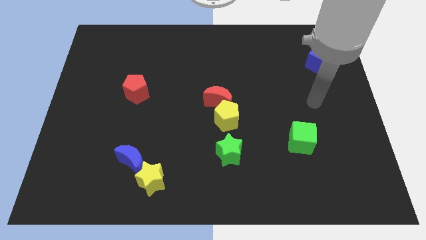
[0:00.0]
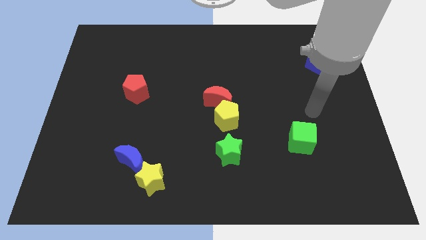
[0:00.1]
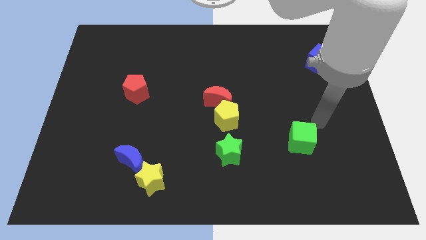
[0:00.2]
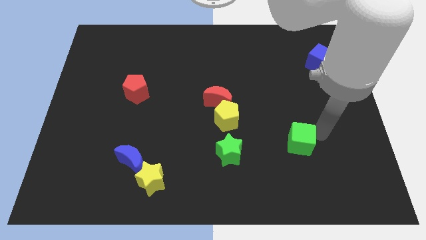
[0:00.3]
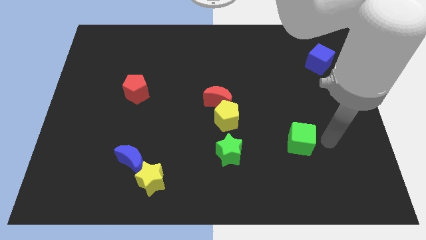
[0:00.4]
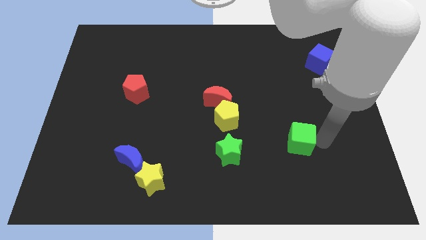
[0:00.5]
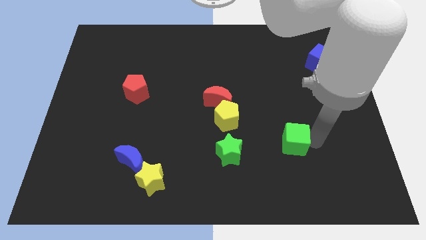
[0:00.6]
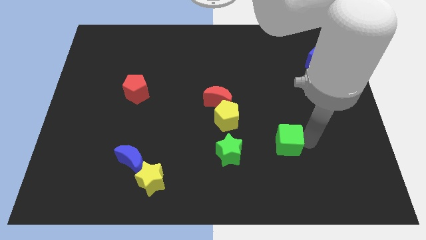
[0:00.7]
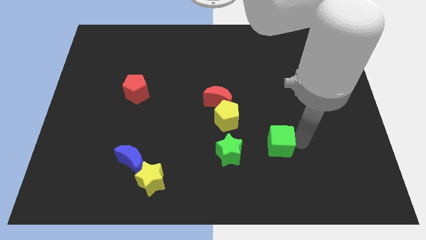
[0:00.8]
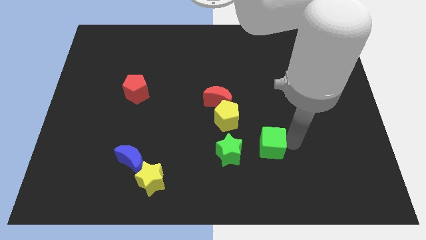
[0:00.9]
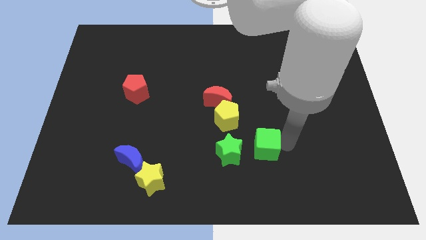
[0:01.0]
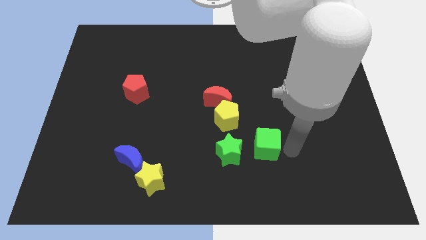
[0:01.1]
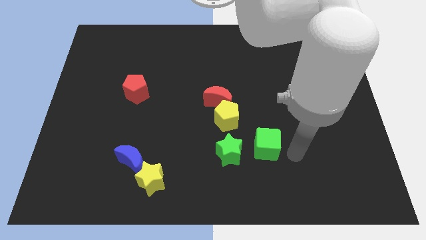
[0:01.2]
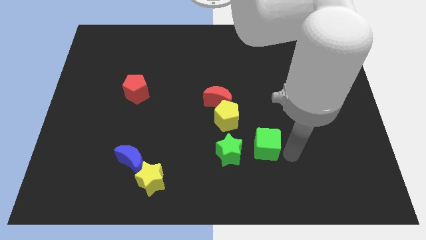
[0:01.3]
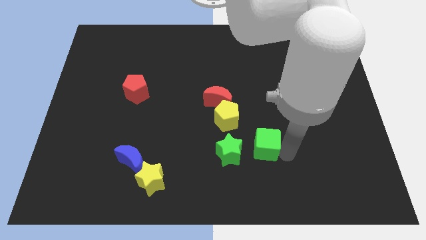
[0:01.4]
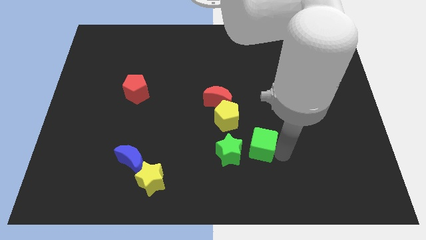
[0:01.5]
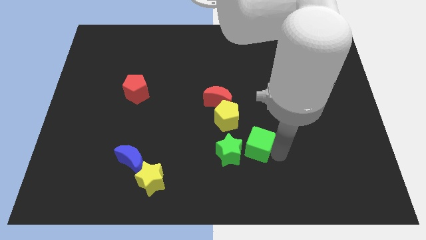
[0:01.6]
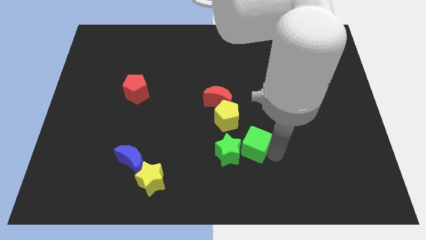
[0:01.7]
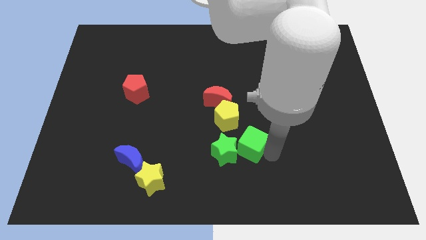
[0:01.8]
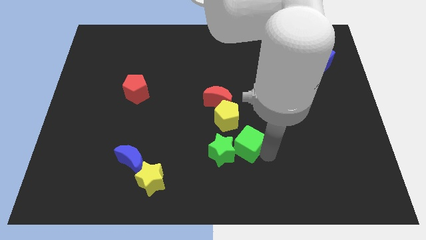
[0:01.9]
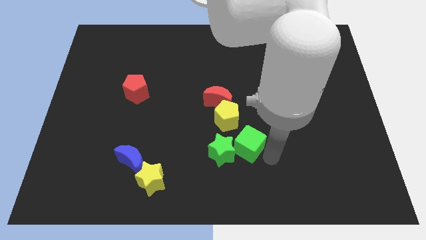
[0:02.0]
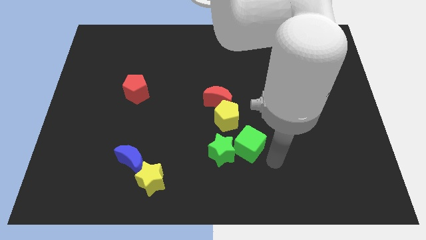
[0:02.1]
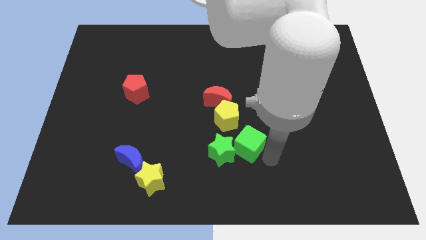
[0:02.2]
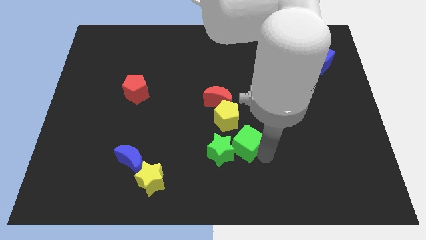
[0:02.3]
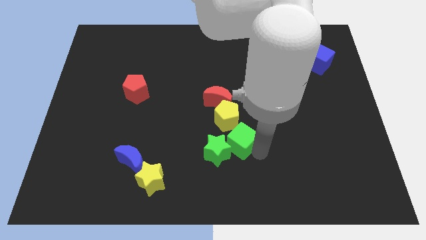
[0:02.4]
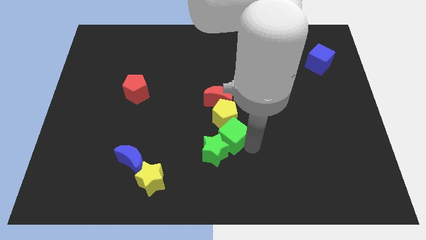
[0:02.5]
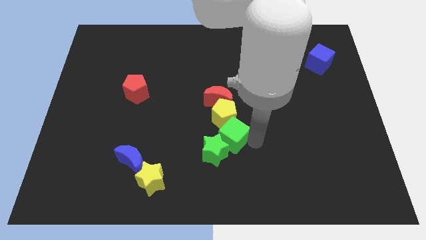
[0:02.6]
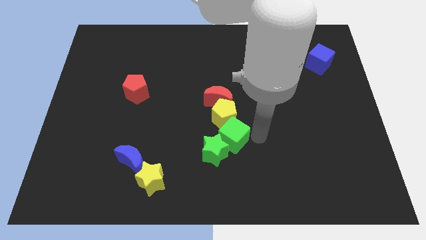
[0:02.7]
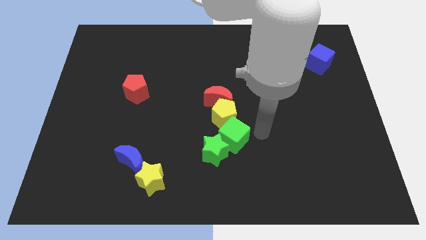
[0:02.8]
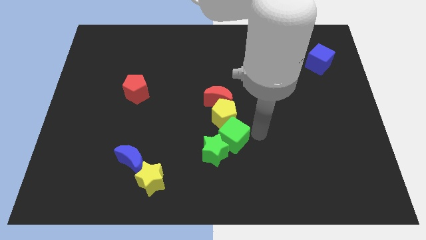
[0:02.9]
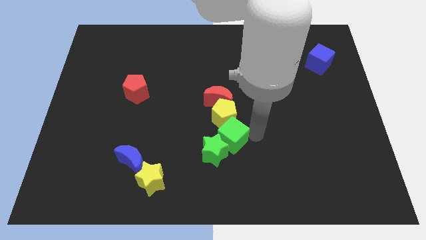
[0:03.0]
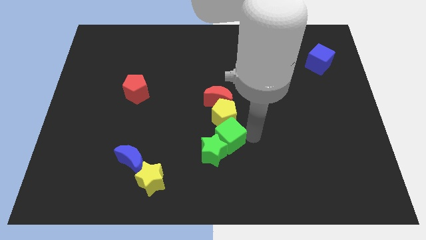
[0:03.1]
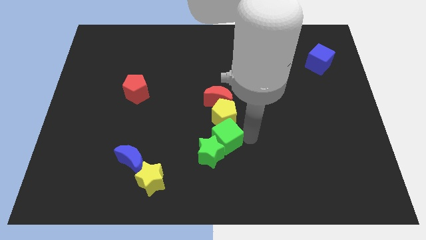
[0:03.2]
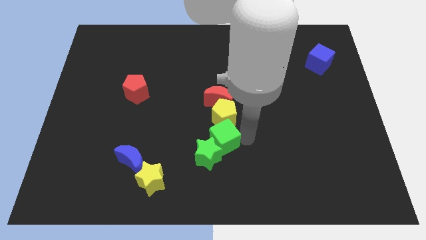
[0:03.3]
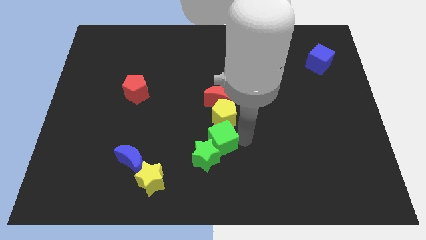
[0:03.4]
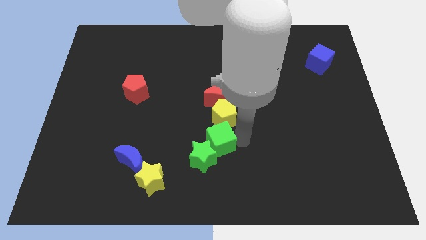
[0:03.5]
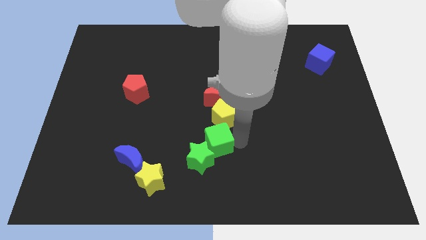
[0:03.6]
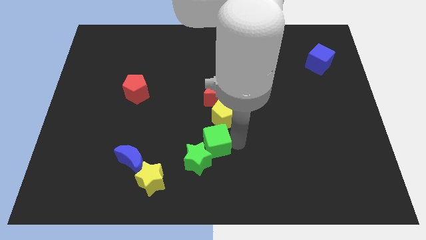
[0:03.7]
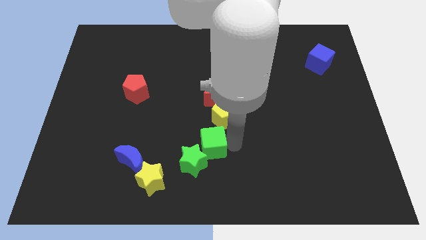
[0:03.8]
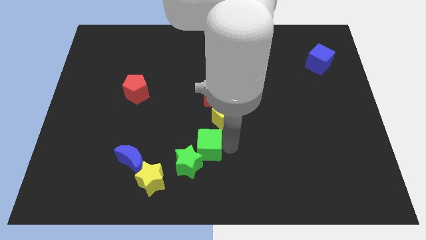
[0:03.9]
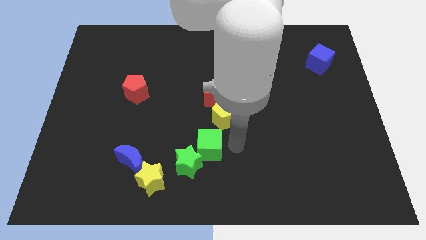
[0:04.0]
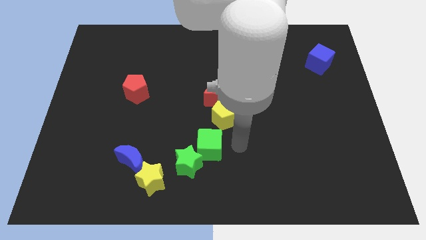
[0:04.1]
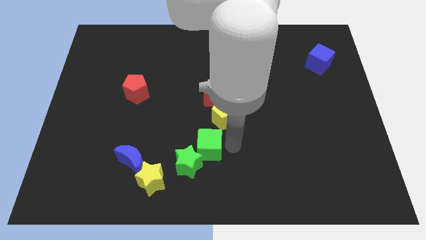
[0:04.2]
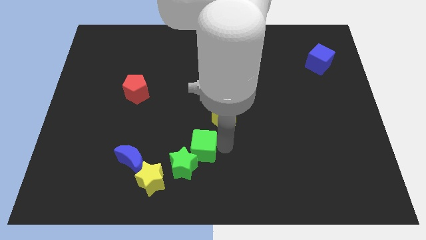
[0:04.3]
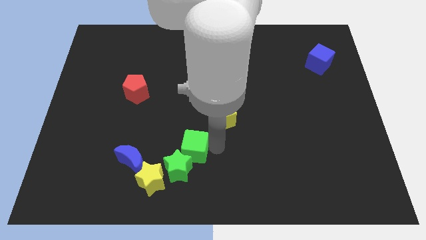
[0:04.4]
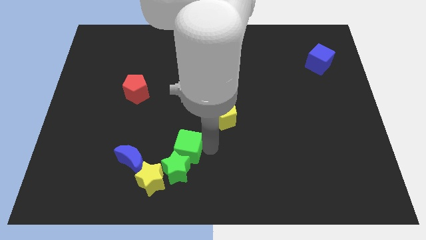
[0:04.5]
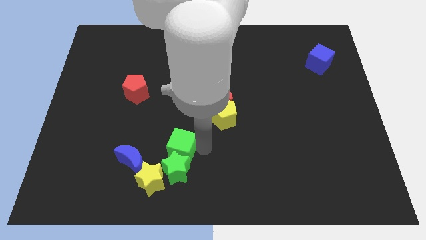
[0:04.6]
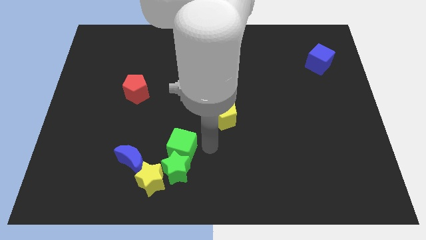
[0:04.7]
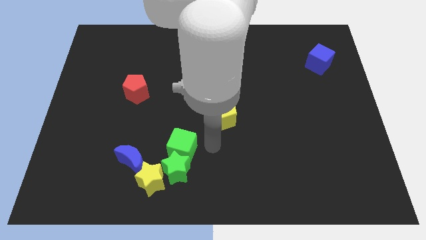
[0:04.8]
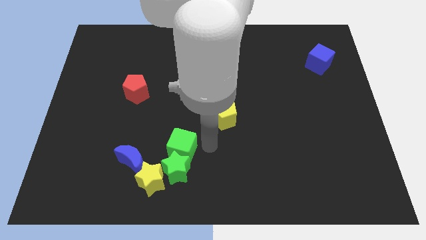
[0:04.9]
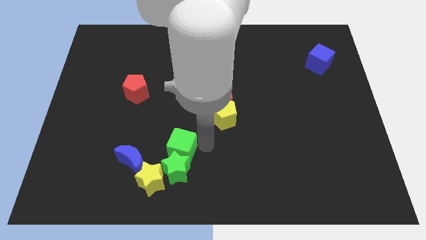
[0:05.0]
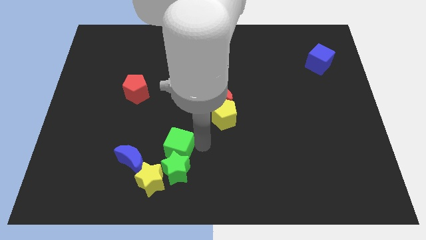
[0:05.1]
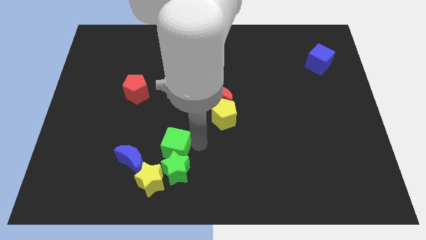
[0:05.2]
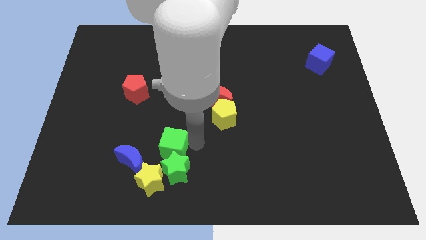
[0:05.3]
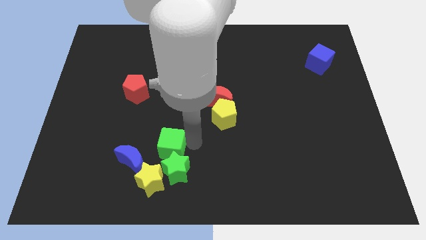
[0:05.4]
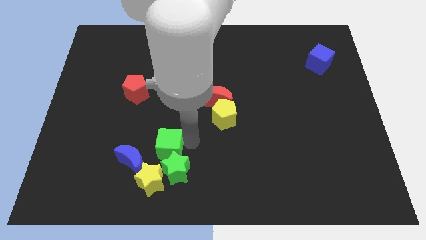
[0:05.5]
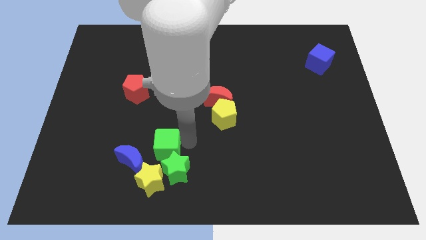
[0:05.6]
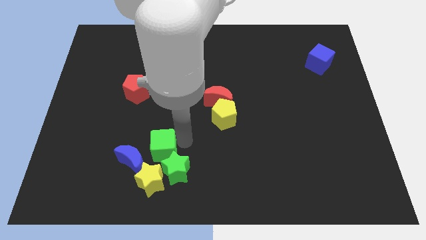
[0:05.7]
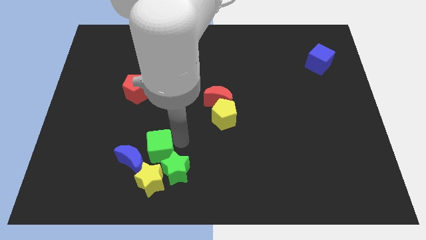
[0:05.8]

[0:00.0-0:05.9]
move the green cube towards the blue moon
